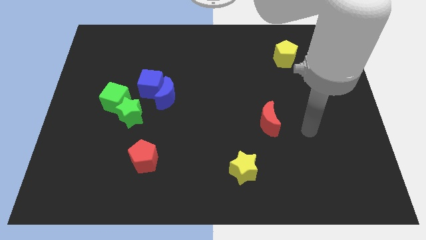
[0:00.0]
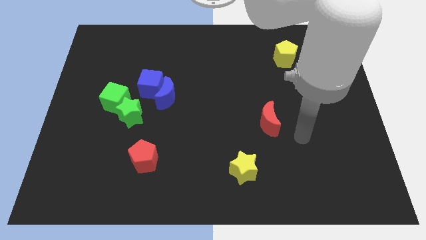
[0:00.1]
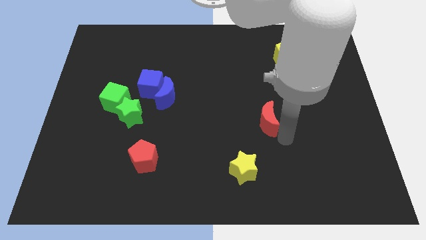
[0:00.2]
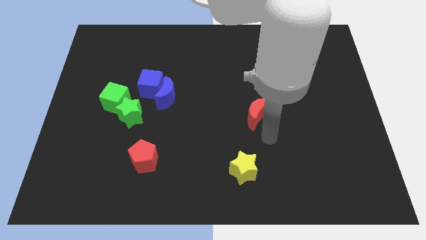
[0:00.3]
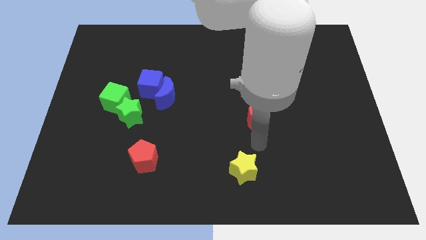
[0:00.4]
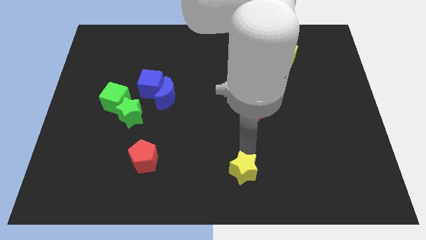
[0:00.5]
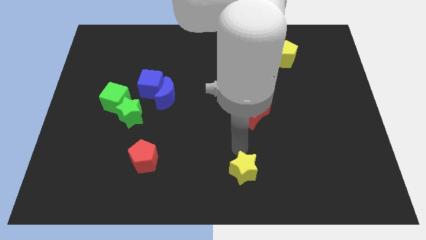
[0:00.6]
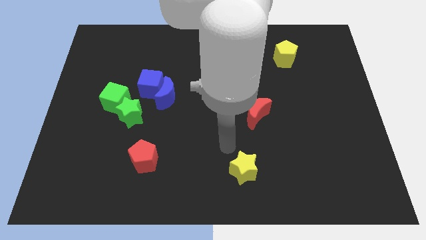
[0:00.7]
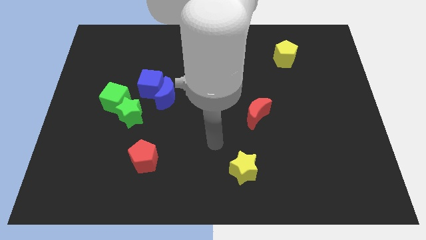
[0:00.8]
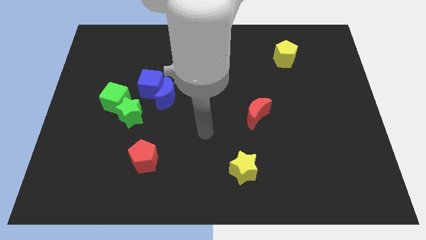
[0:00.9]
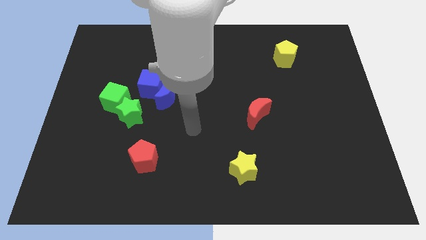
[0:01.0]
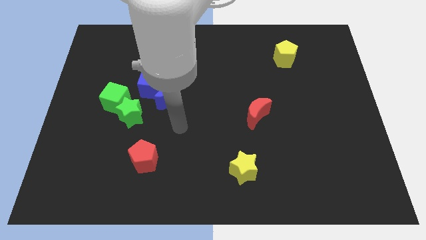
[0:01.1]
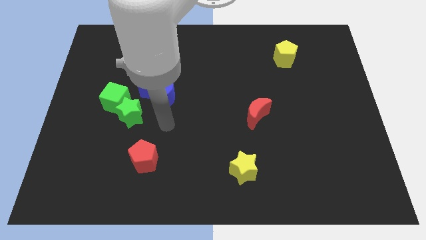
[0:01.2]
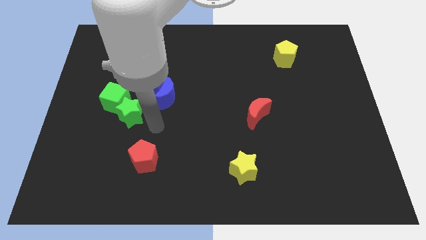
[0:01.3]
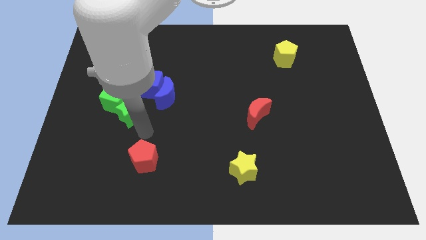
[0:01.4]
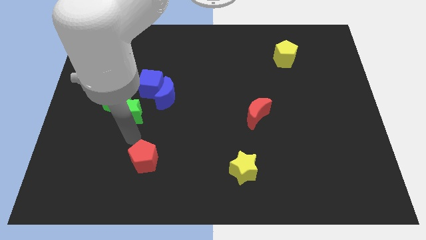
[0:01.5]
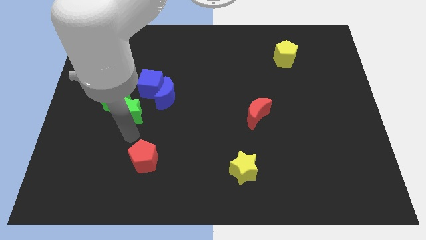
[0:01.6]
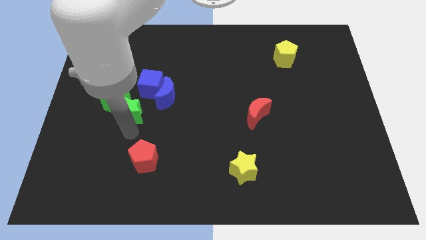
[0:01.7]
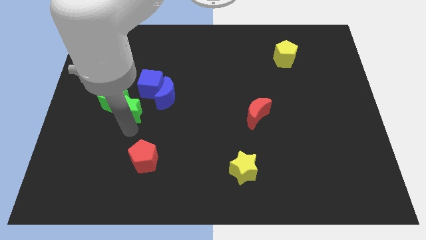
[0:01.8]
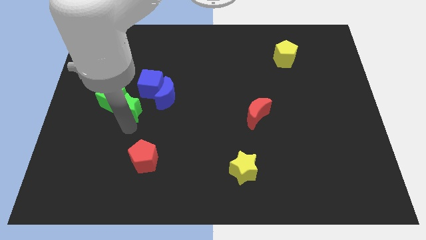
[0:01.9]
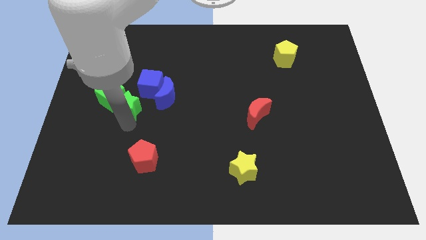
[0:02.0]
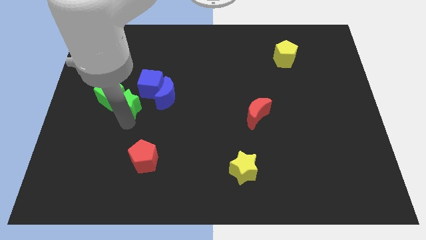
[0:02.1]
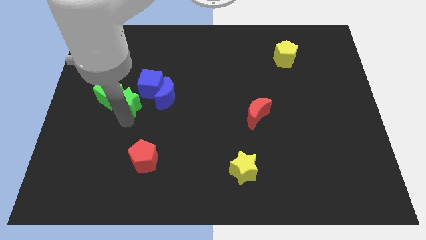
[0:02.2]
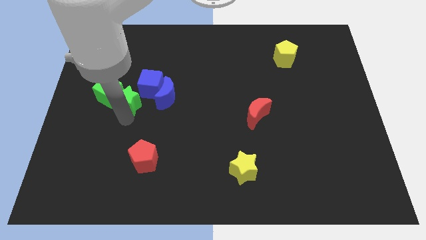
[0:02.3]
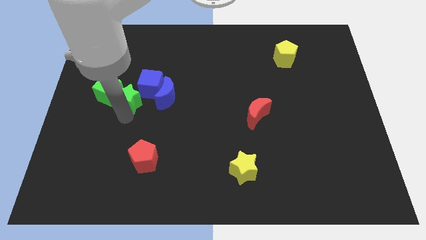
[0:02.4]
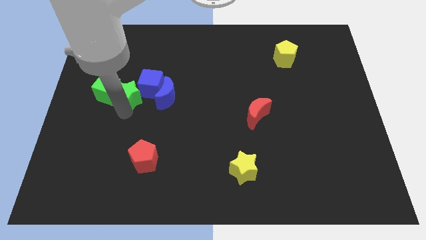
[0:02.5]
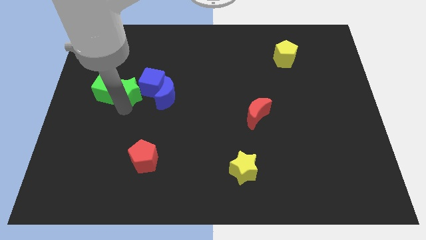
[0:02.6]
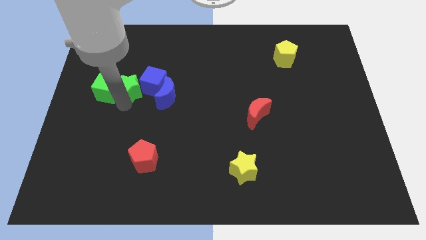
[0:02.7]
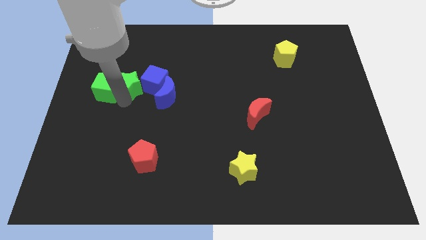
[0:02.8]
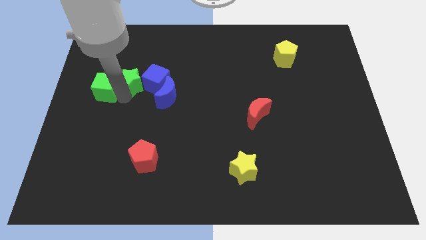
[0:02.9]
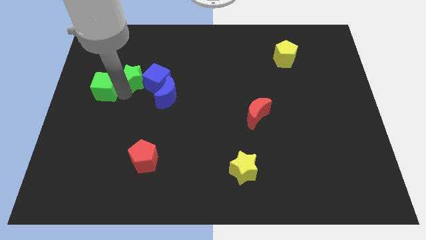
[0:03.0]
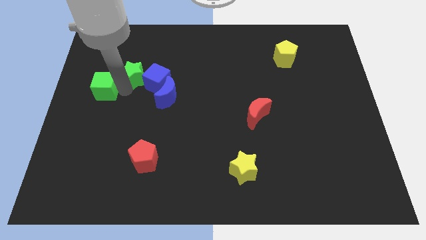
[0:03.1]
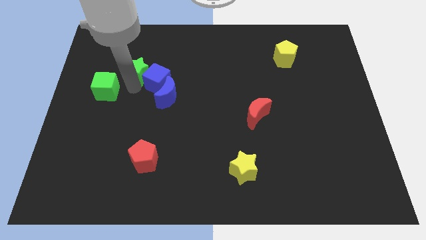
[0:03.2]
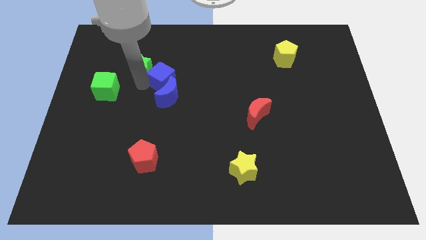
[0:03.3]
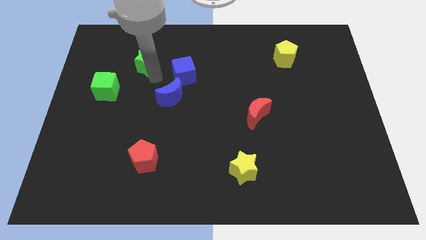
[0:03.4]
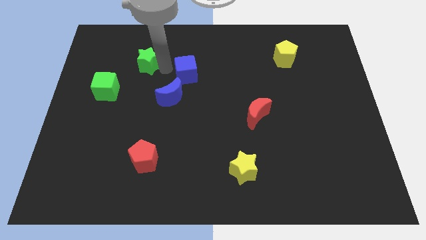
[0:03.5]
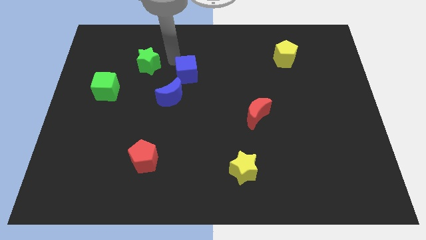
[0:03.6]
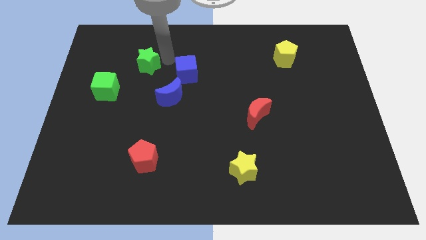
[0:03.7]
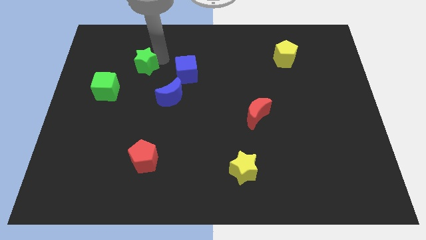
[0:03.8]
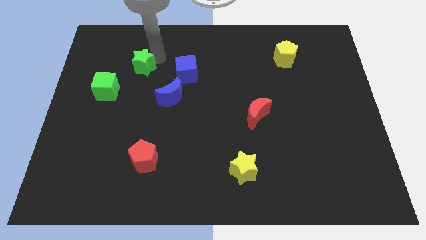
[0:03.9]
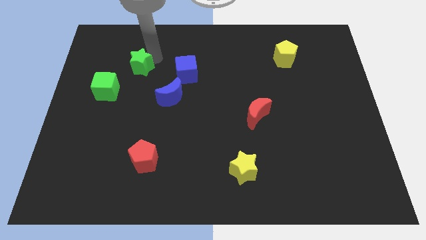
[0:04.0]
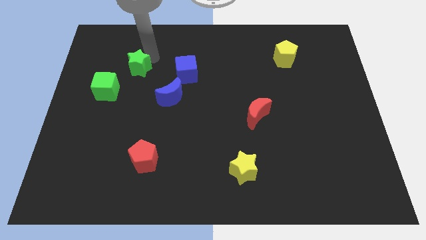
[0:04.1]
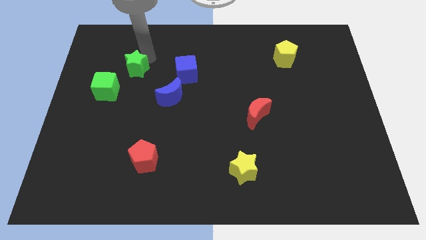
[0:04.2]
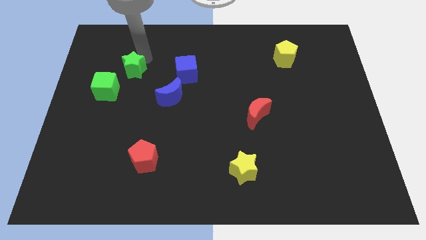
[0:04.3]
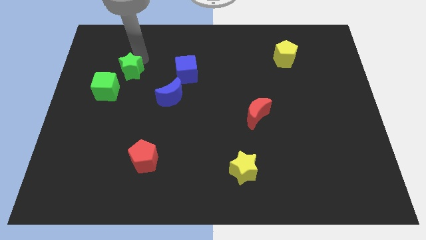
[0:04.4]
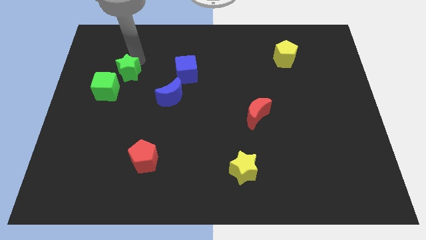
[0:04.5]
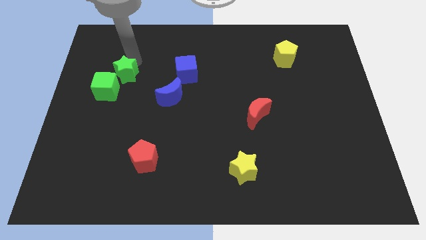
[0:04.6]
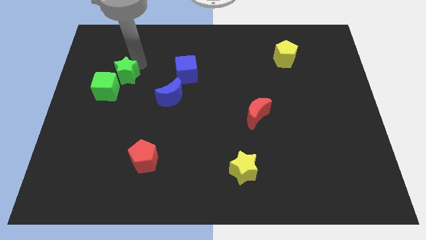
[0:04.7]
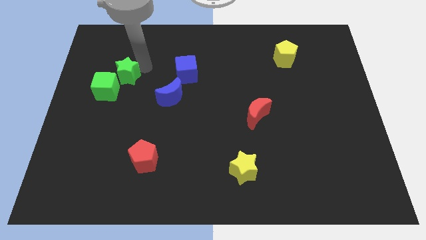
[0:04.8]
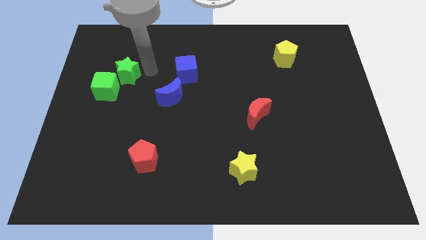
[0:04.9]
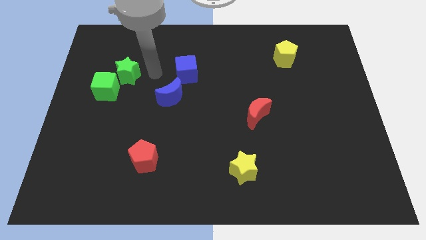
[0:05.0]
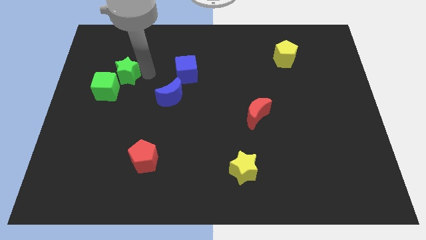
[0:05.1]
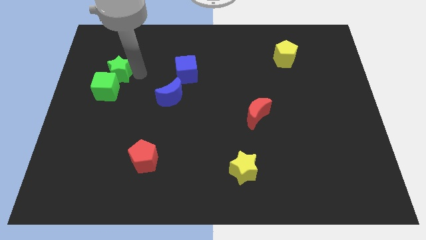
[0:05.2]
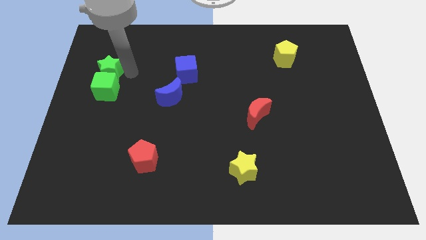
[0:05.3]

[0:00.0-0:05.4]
slide the green star to the top left side of the green cube

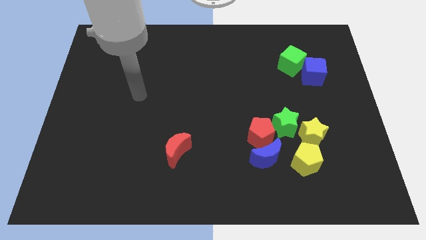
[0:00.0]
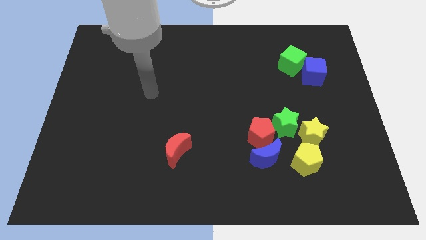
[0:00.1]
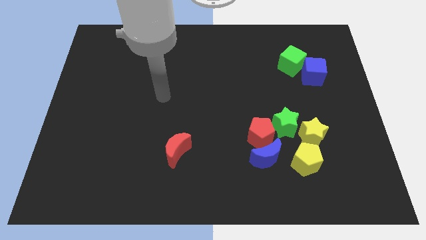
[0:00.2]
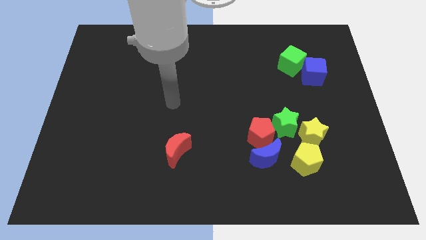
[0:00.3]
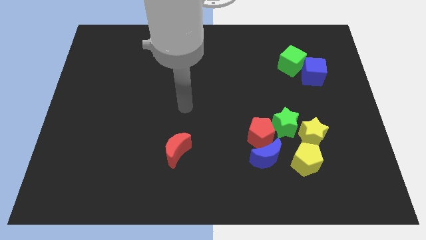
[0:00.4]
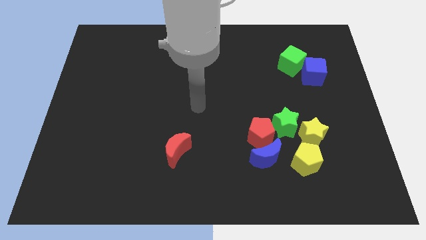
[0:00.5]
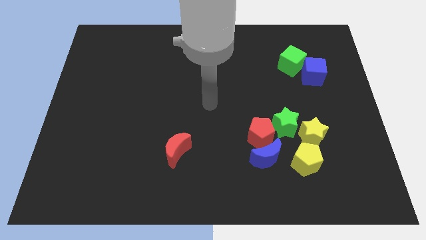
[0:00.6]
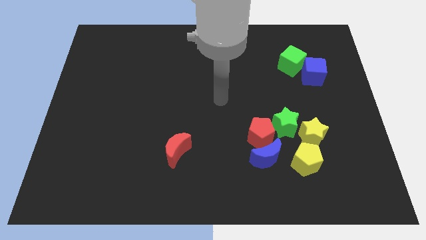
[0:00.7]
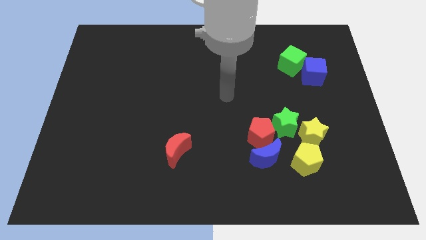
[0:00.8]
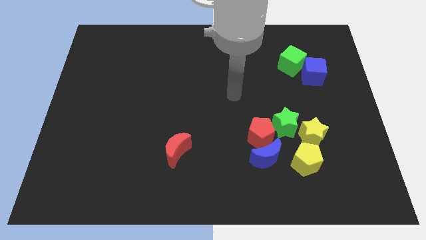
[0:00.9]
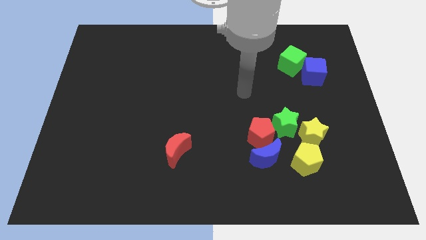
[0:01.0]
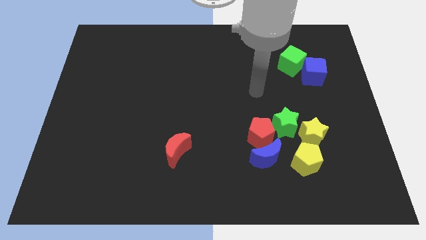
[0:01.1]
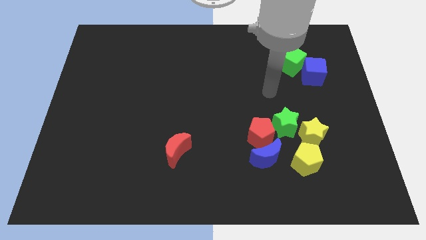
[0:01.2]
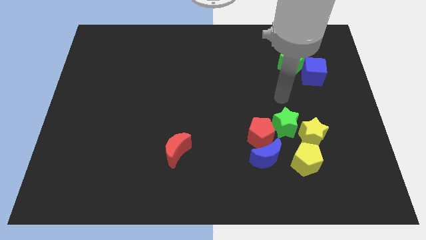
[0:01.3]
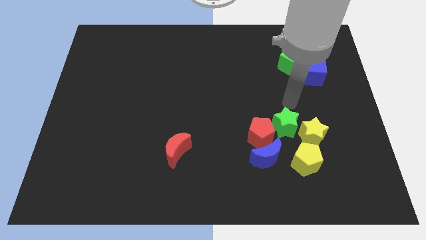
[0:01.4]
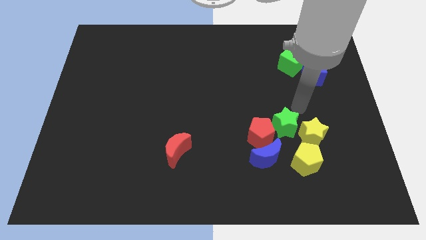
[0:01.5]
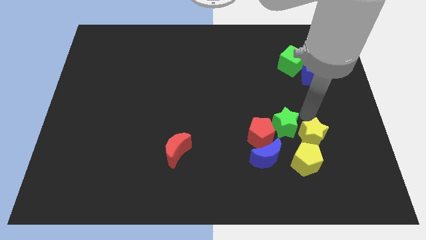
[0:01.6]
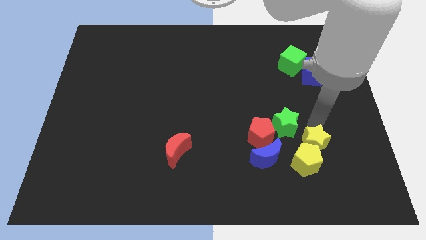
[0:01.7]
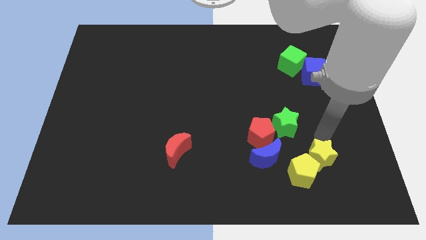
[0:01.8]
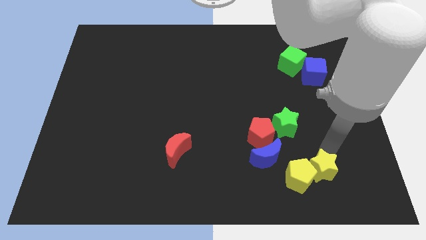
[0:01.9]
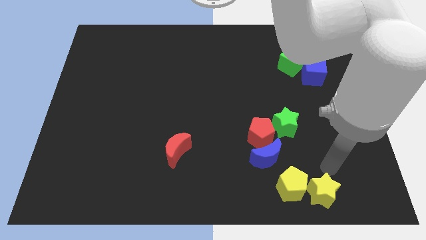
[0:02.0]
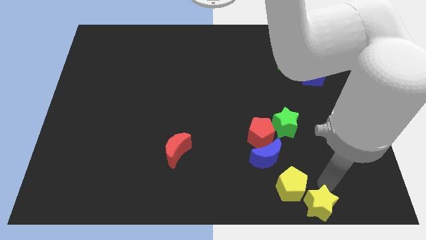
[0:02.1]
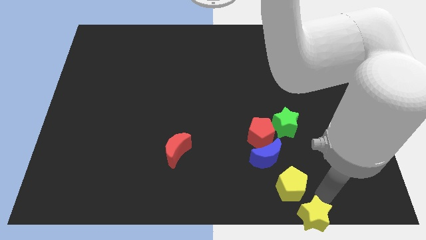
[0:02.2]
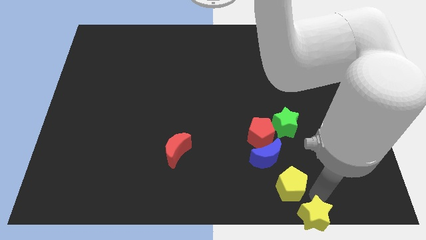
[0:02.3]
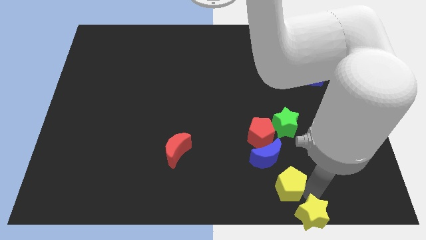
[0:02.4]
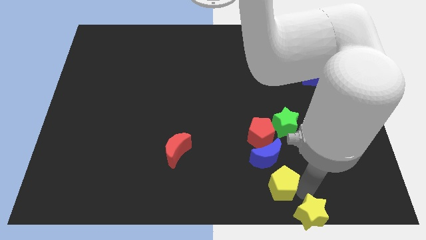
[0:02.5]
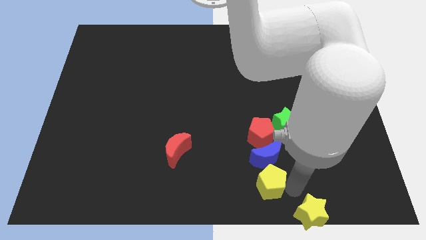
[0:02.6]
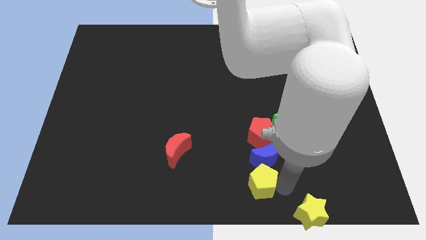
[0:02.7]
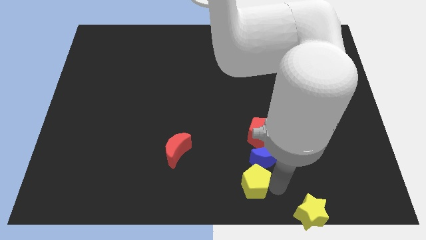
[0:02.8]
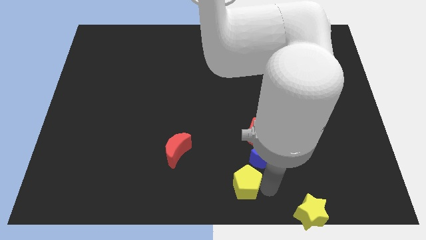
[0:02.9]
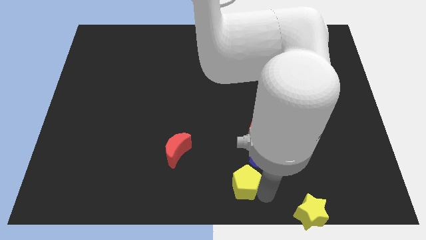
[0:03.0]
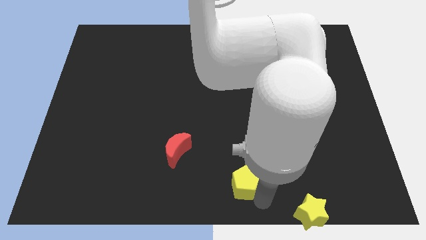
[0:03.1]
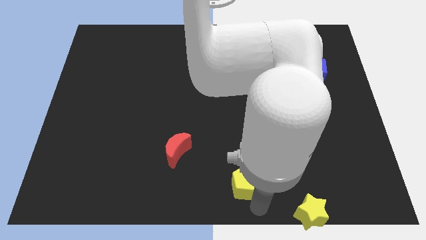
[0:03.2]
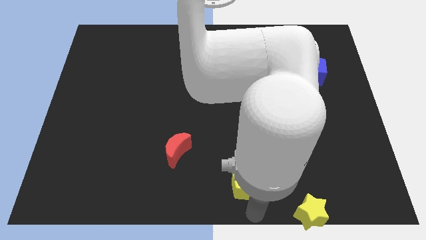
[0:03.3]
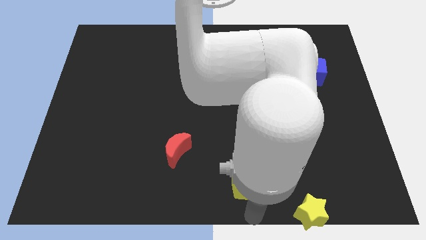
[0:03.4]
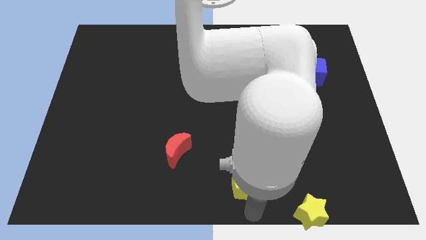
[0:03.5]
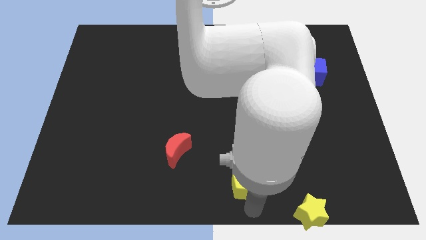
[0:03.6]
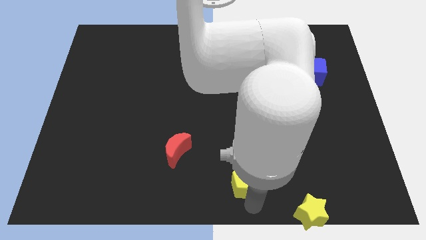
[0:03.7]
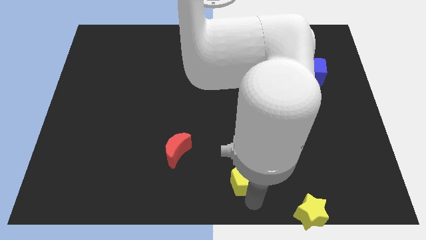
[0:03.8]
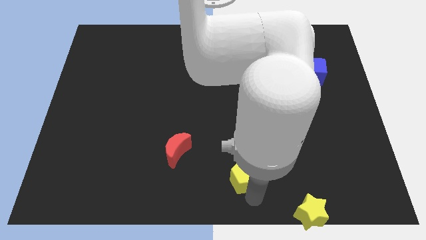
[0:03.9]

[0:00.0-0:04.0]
move the yellow pentagon to the bottom left side of the red pentagon
